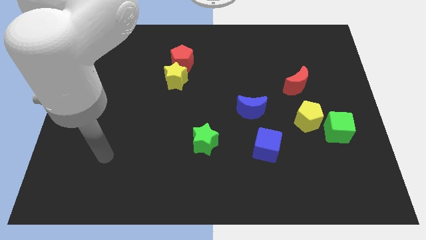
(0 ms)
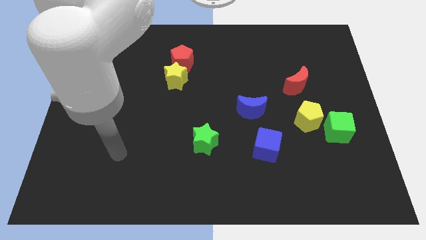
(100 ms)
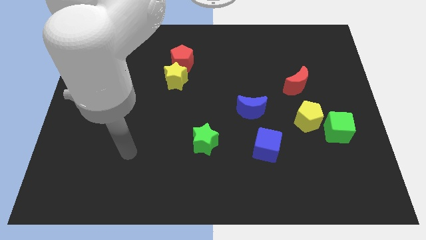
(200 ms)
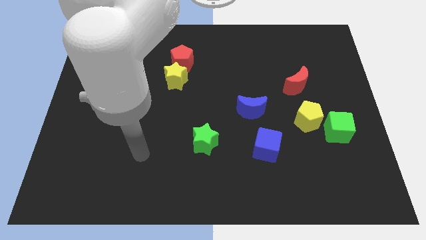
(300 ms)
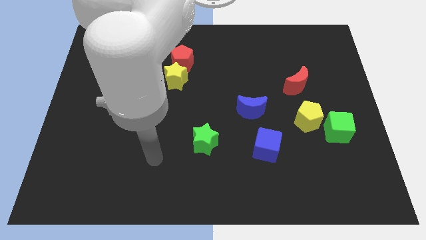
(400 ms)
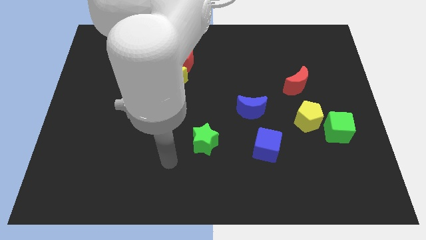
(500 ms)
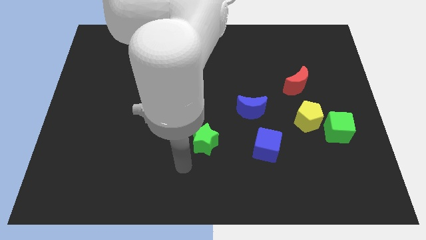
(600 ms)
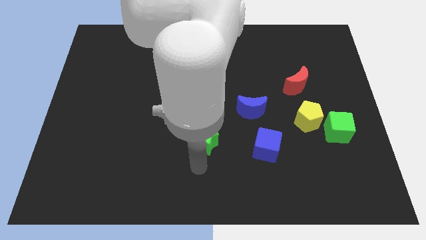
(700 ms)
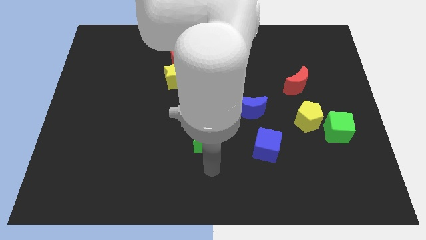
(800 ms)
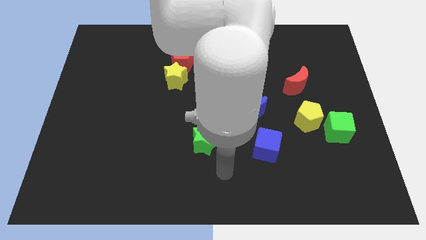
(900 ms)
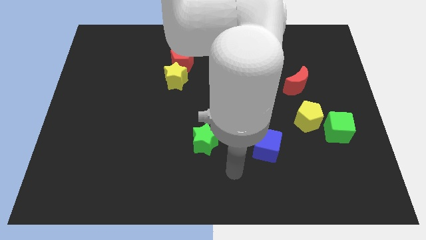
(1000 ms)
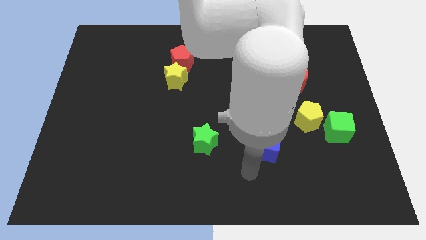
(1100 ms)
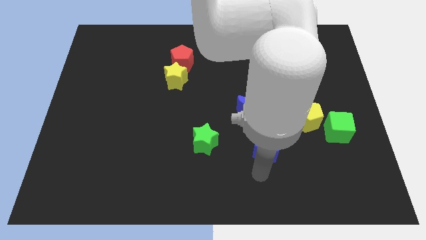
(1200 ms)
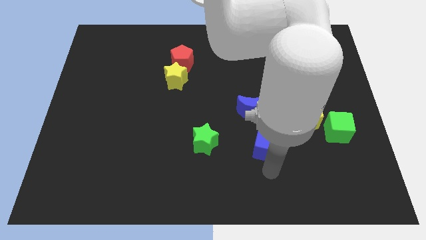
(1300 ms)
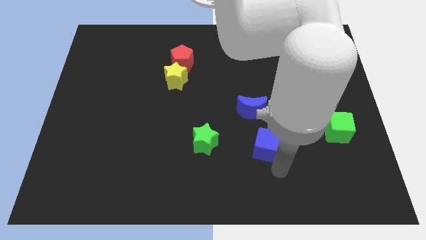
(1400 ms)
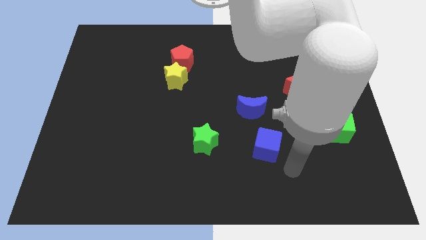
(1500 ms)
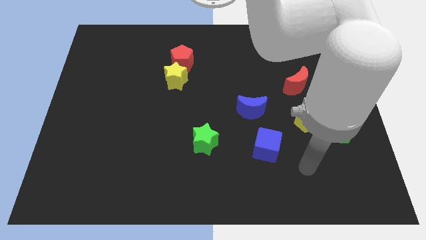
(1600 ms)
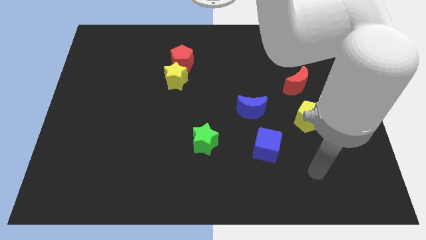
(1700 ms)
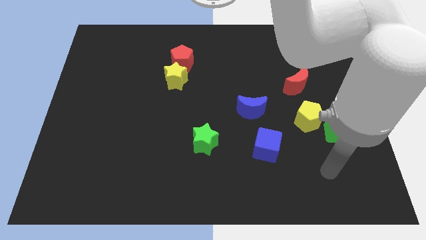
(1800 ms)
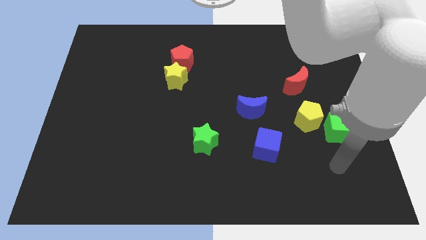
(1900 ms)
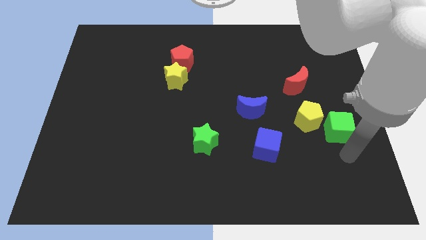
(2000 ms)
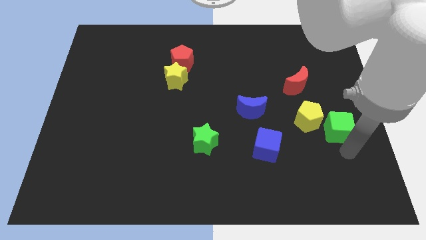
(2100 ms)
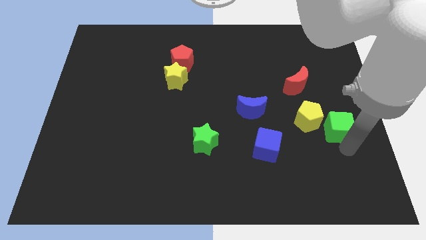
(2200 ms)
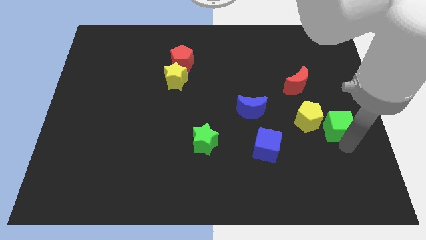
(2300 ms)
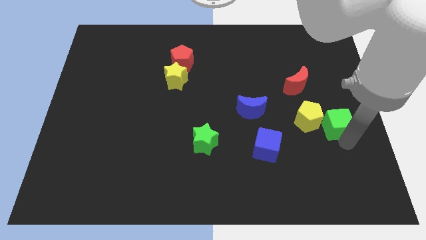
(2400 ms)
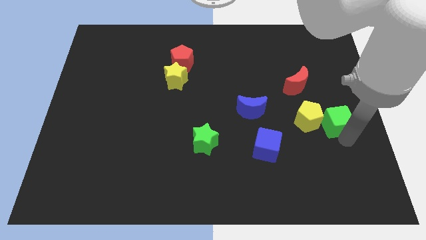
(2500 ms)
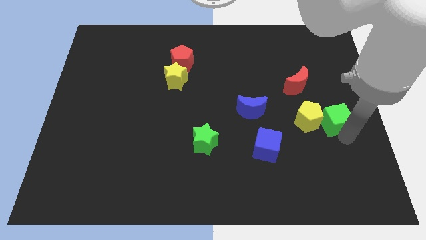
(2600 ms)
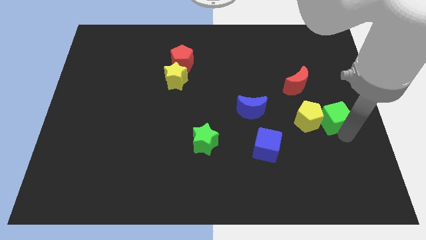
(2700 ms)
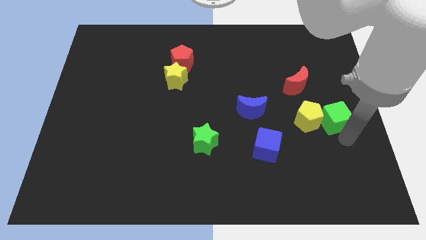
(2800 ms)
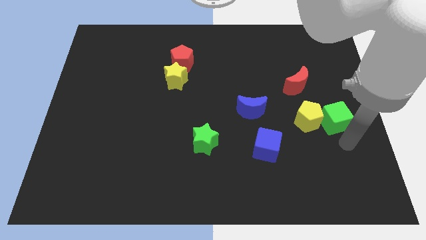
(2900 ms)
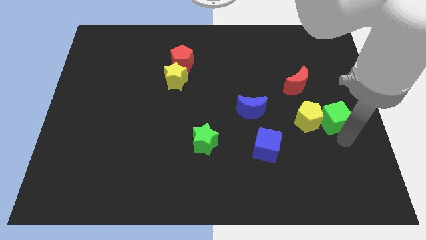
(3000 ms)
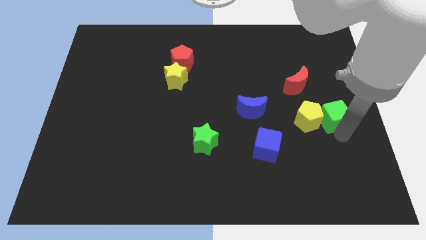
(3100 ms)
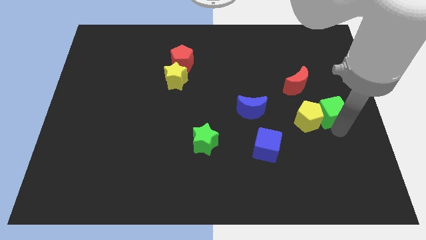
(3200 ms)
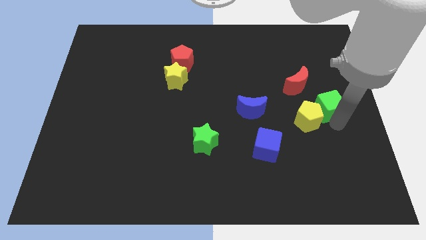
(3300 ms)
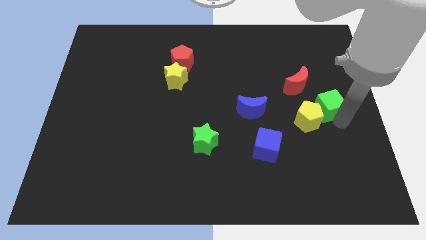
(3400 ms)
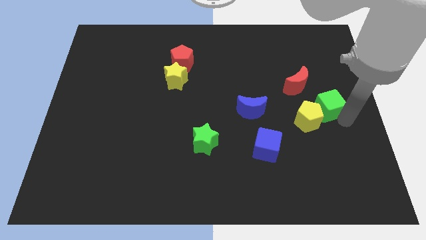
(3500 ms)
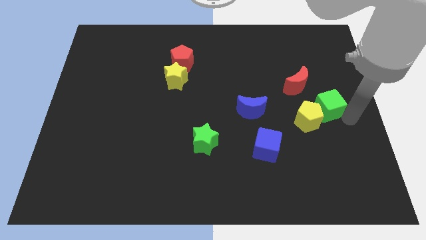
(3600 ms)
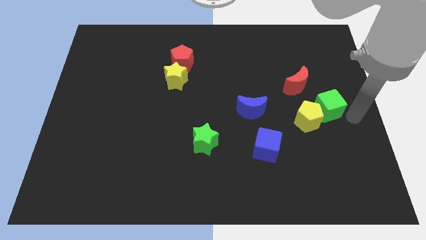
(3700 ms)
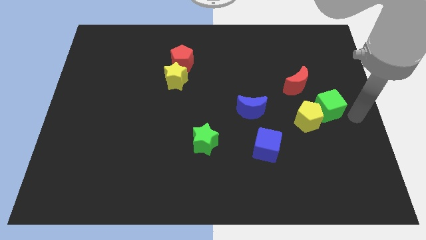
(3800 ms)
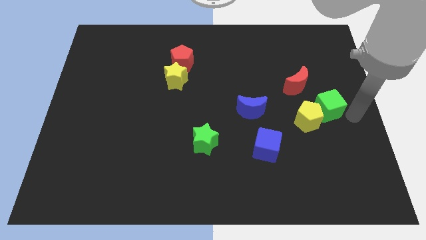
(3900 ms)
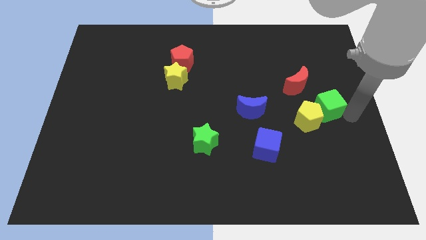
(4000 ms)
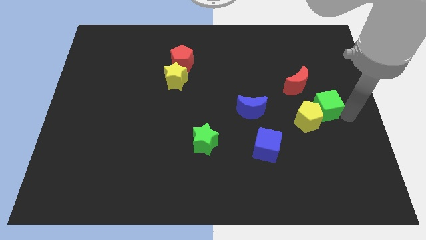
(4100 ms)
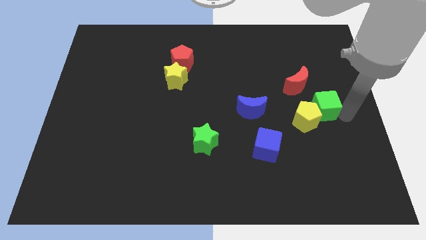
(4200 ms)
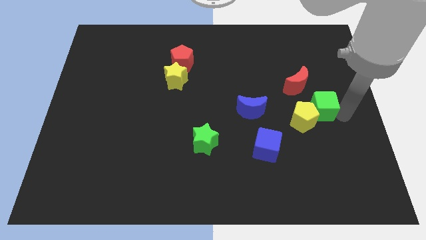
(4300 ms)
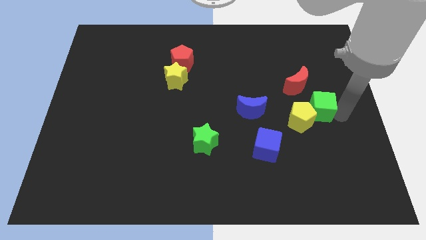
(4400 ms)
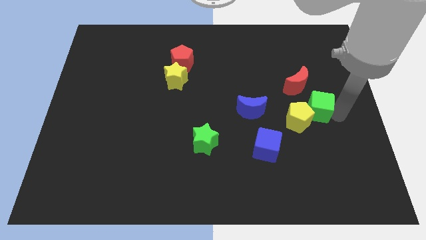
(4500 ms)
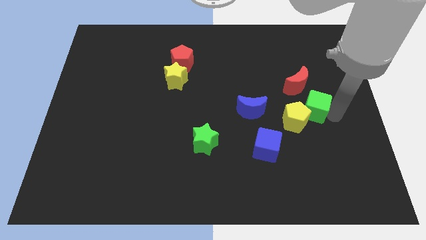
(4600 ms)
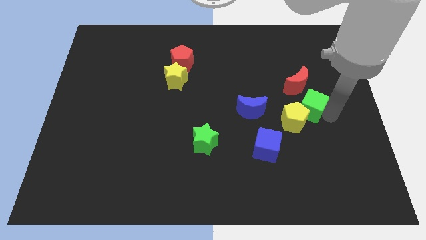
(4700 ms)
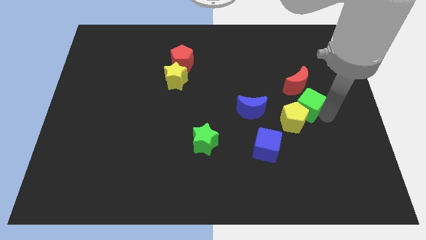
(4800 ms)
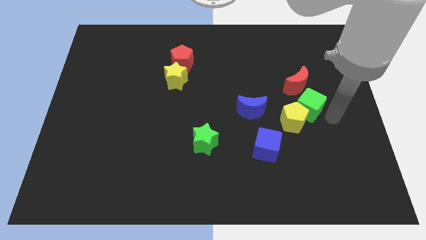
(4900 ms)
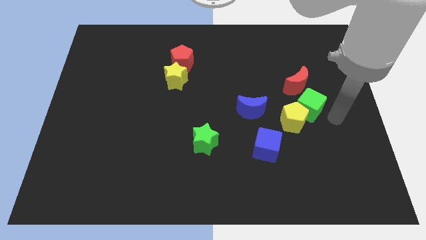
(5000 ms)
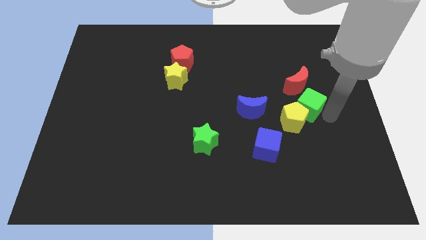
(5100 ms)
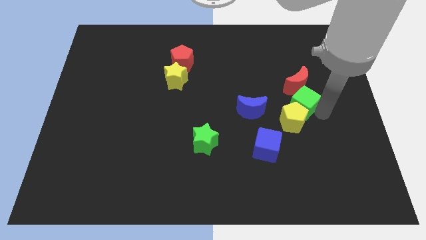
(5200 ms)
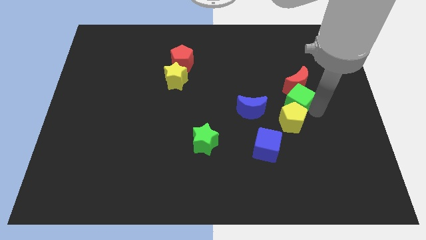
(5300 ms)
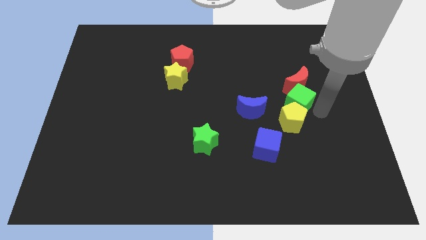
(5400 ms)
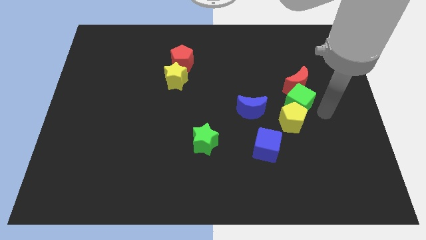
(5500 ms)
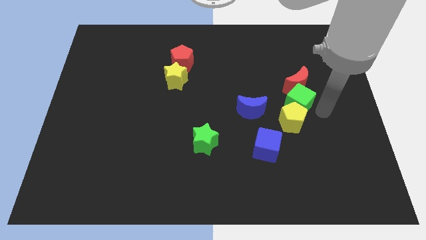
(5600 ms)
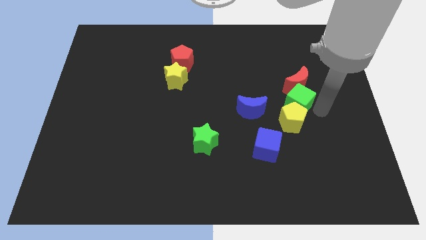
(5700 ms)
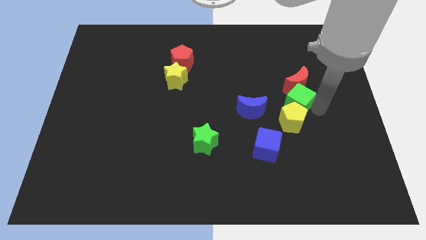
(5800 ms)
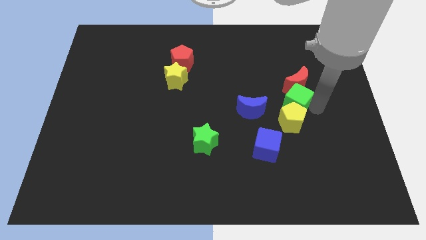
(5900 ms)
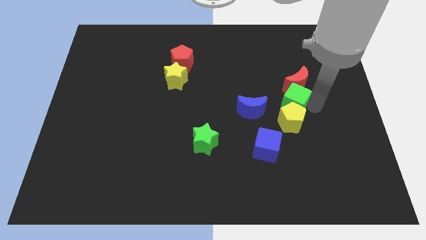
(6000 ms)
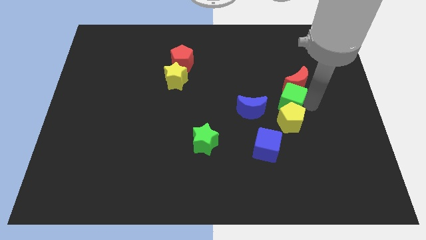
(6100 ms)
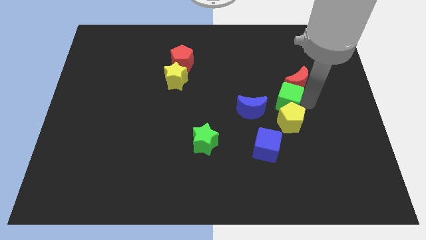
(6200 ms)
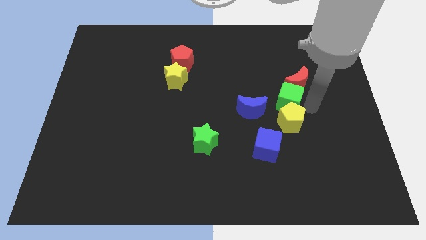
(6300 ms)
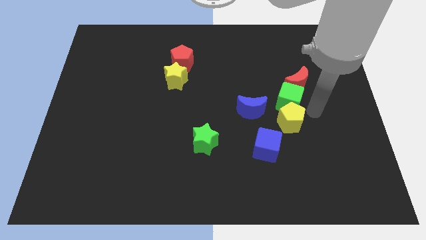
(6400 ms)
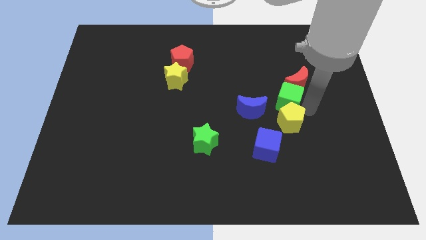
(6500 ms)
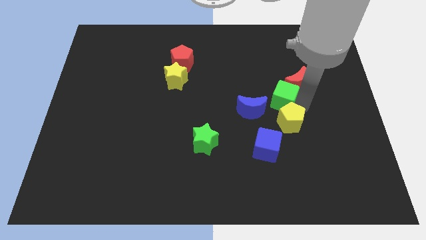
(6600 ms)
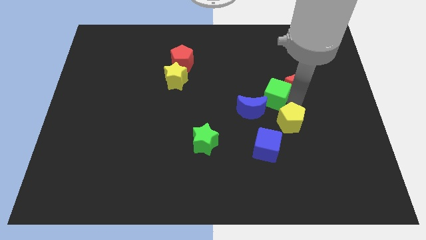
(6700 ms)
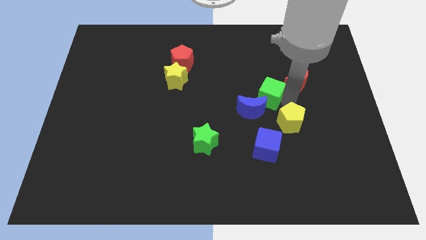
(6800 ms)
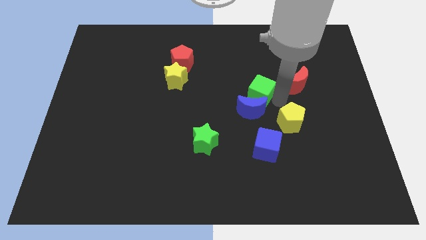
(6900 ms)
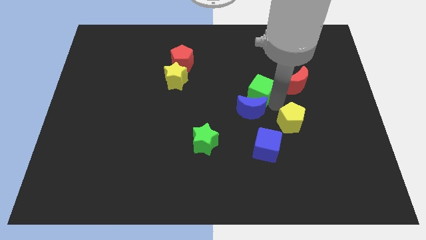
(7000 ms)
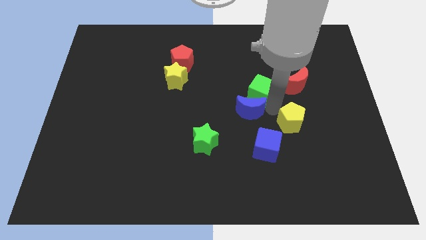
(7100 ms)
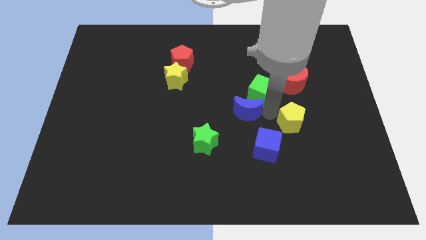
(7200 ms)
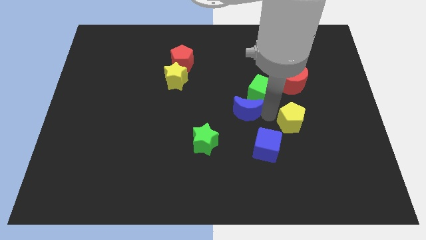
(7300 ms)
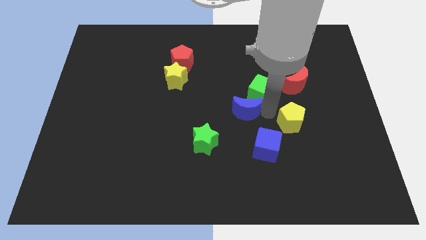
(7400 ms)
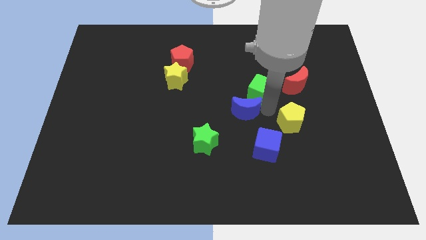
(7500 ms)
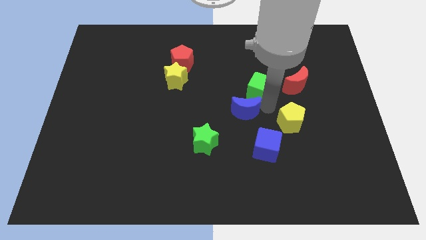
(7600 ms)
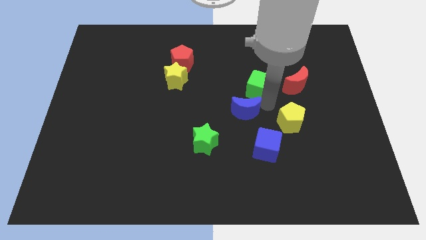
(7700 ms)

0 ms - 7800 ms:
push the green cube diagonally upwards and to the left
